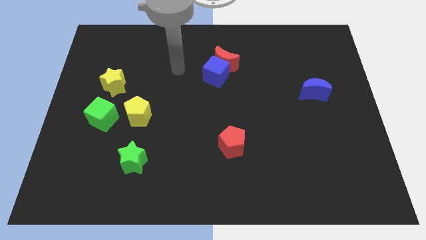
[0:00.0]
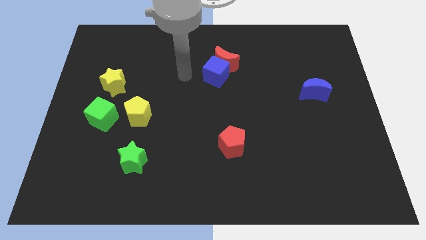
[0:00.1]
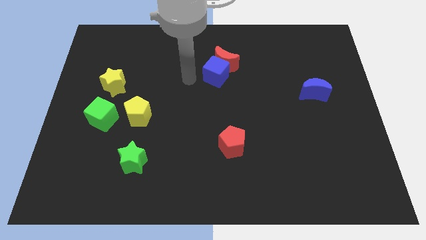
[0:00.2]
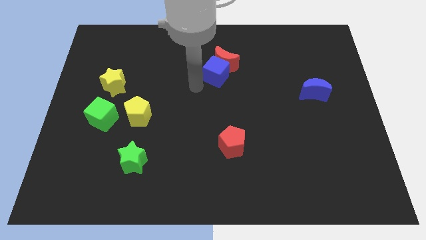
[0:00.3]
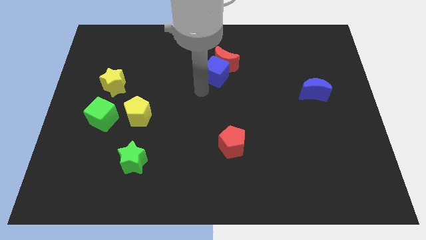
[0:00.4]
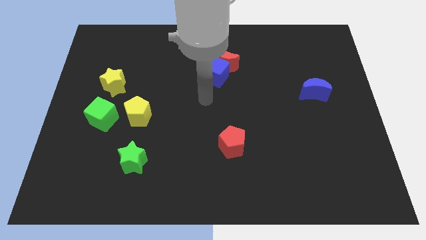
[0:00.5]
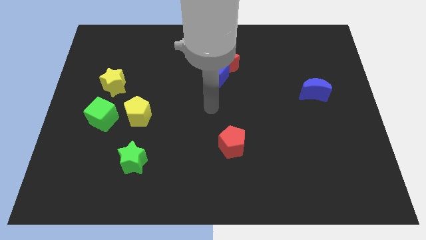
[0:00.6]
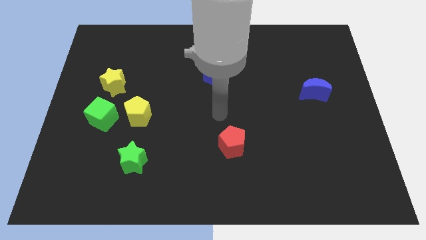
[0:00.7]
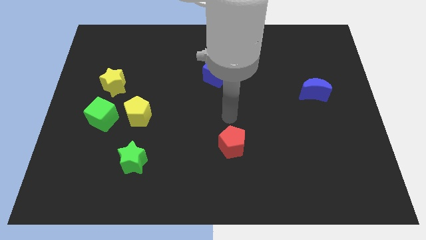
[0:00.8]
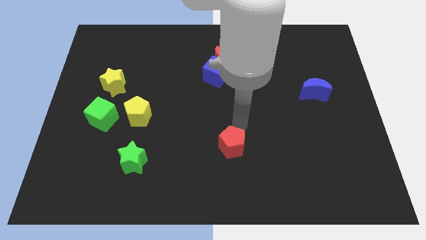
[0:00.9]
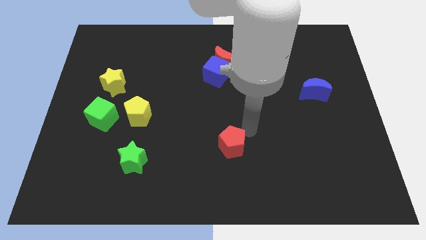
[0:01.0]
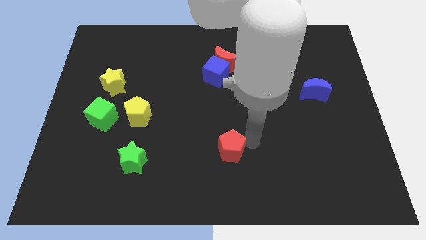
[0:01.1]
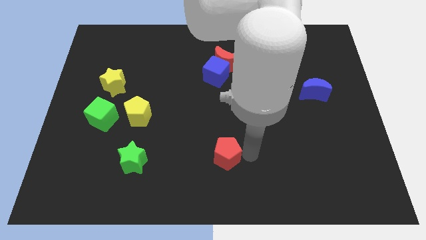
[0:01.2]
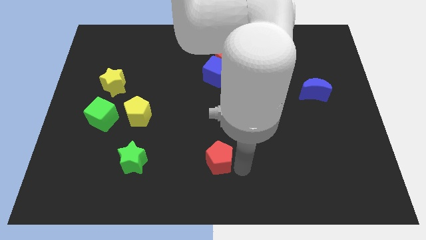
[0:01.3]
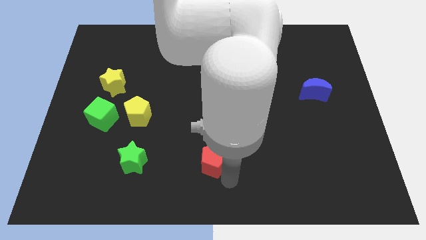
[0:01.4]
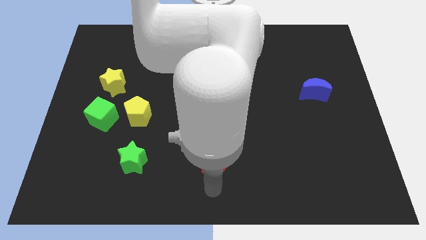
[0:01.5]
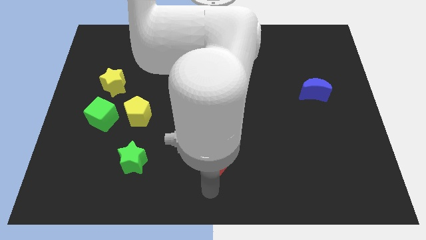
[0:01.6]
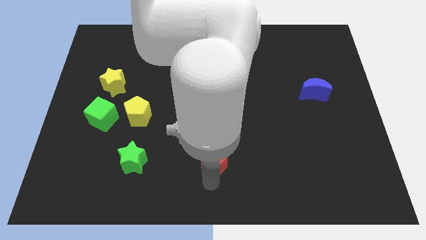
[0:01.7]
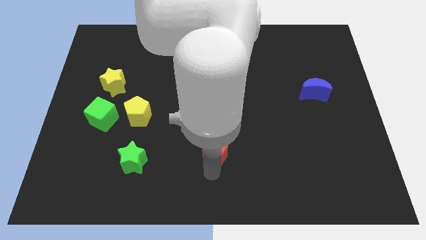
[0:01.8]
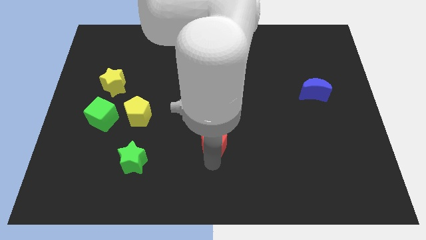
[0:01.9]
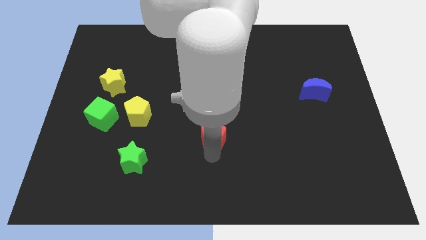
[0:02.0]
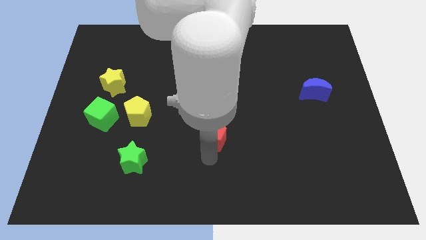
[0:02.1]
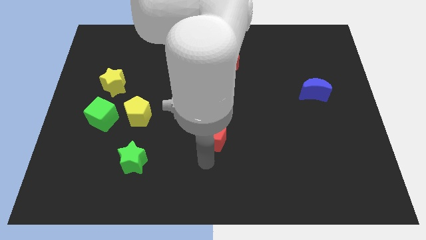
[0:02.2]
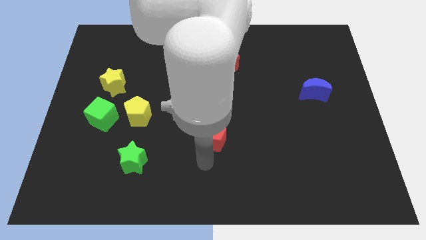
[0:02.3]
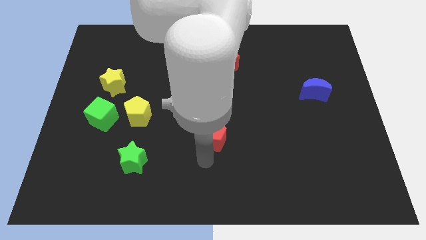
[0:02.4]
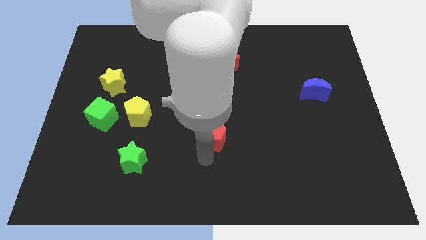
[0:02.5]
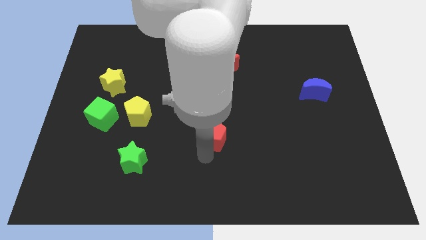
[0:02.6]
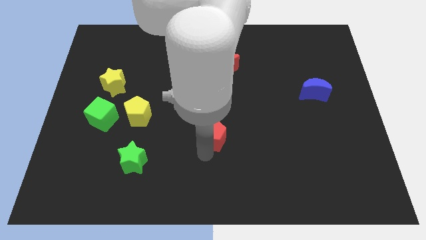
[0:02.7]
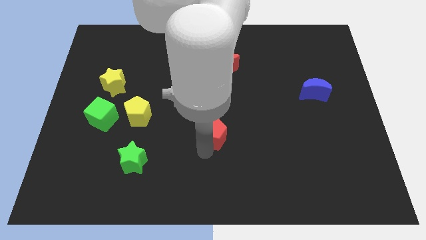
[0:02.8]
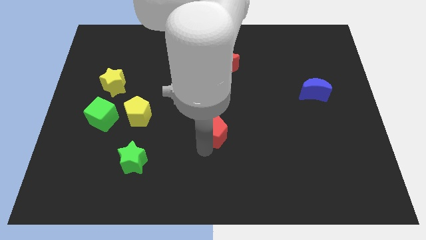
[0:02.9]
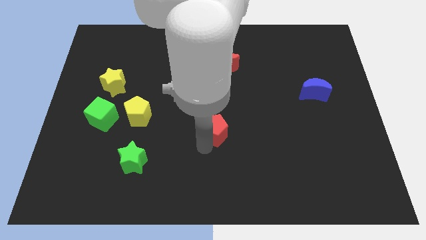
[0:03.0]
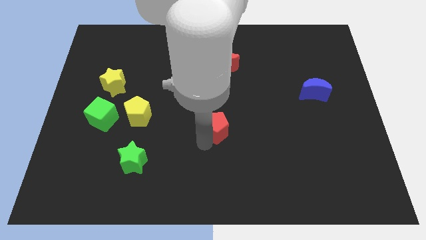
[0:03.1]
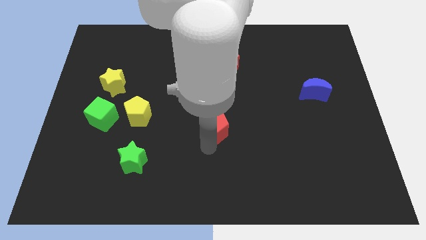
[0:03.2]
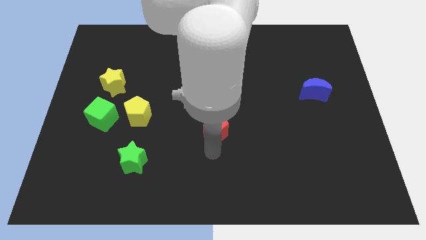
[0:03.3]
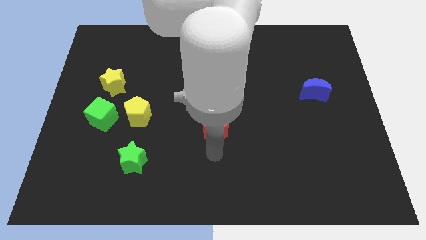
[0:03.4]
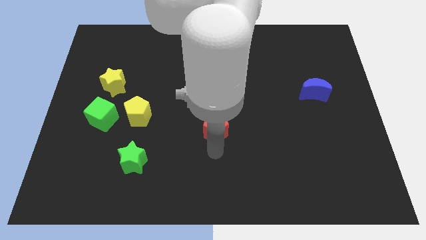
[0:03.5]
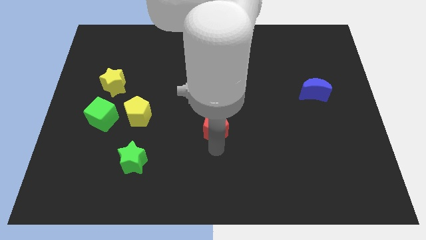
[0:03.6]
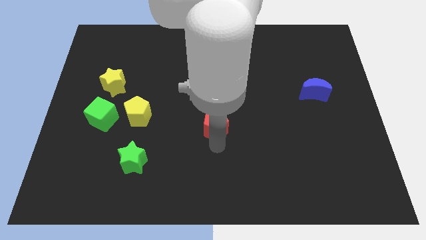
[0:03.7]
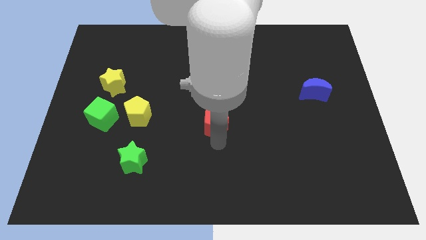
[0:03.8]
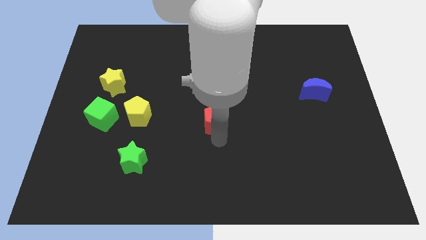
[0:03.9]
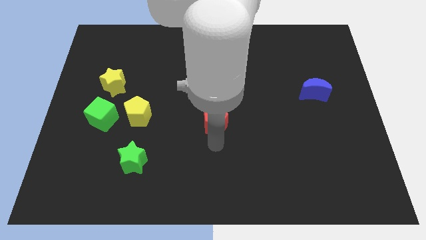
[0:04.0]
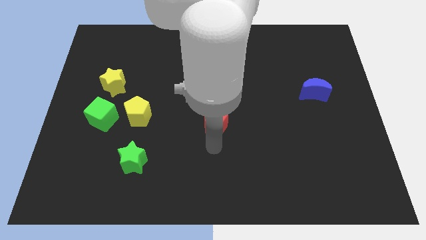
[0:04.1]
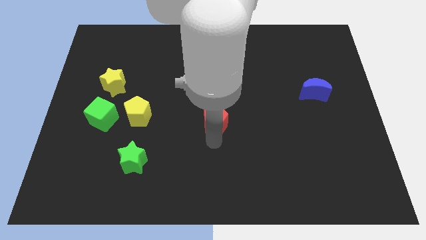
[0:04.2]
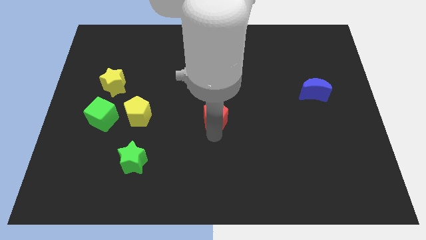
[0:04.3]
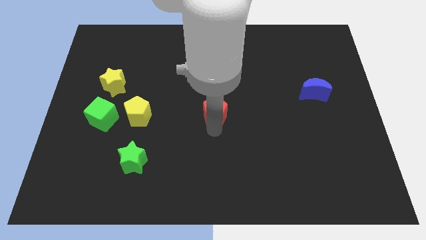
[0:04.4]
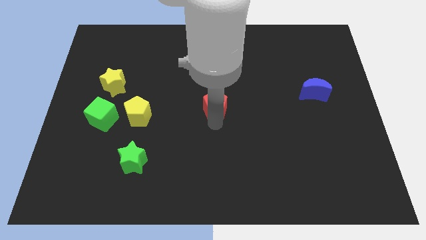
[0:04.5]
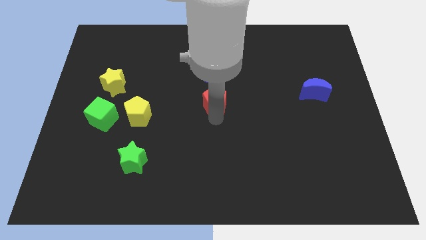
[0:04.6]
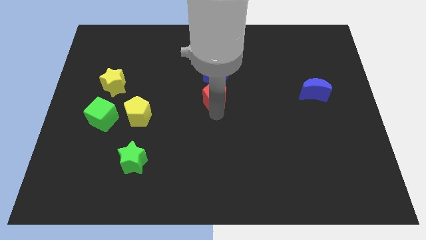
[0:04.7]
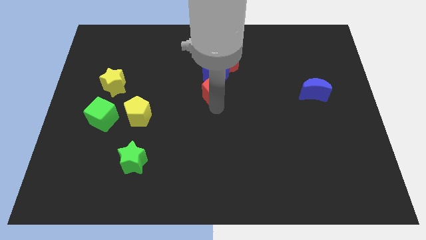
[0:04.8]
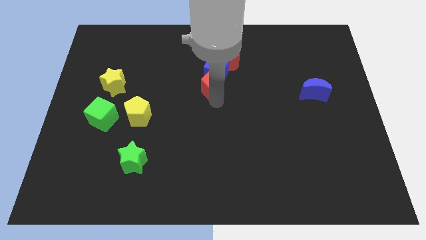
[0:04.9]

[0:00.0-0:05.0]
push the red pentagon to the bottom left of the red moon
